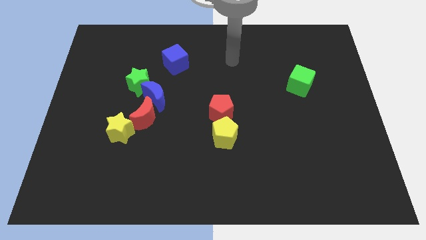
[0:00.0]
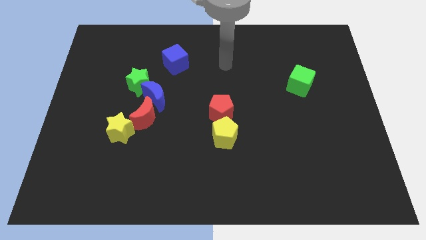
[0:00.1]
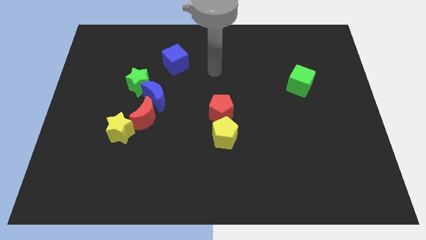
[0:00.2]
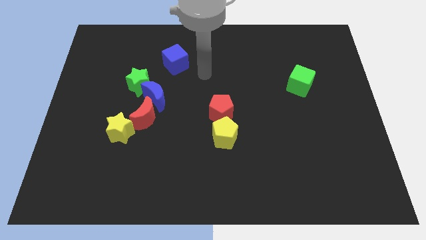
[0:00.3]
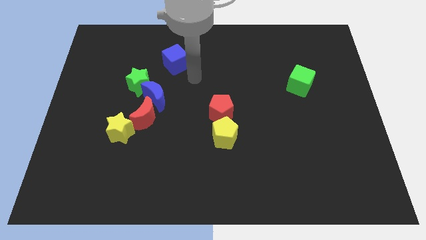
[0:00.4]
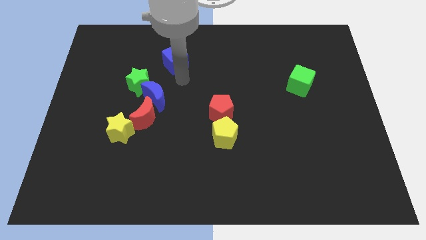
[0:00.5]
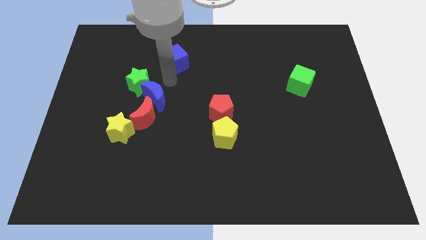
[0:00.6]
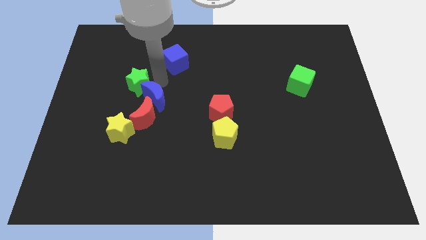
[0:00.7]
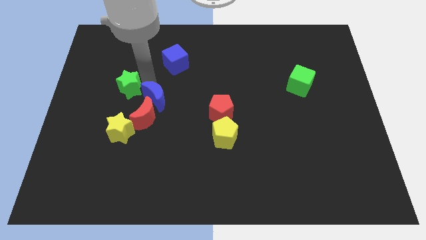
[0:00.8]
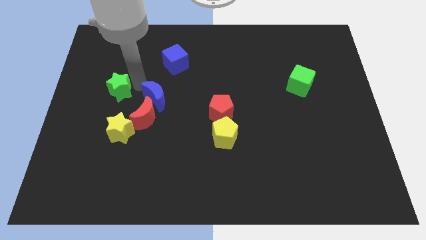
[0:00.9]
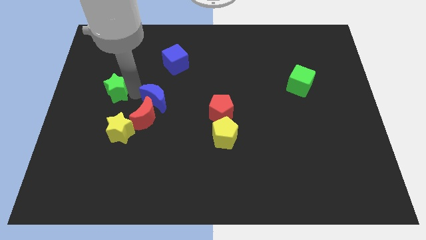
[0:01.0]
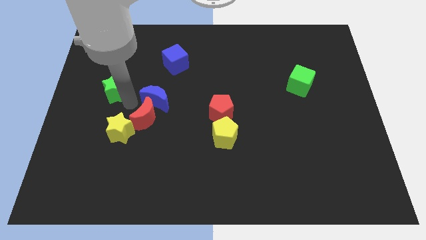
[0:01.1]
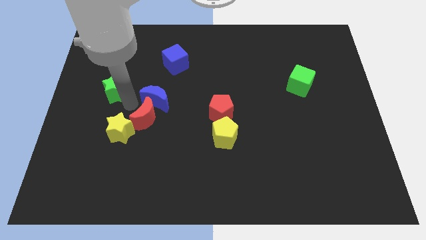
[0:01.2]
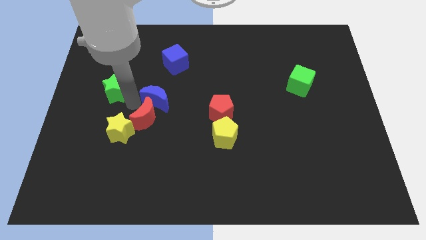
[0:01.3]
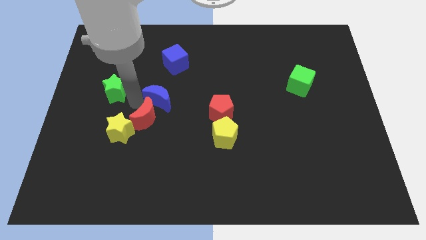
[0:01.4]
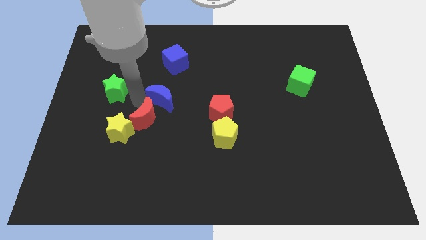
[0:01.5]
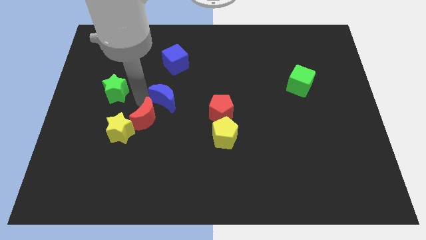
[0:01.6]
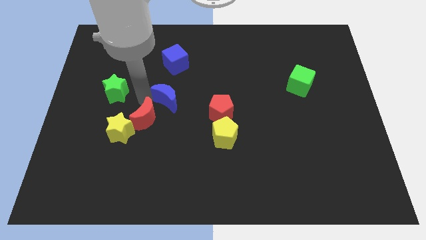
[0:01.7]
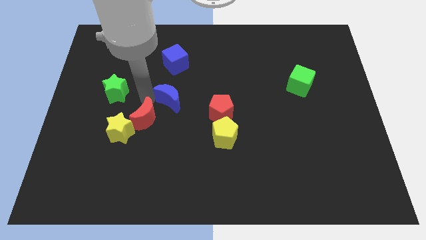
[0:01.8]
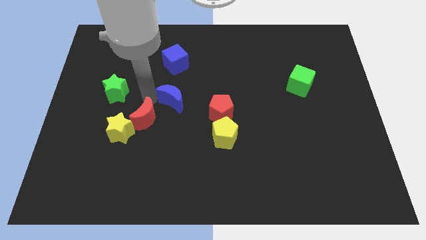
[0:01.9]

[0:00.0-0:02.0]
pull the blue moon apart from the red moon and green star

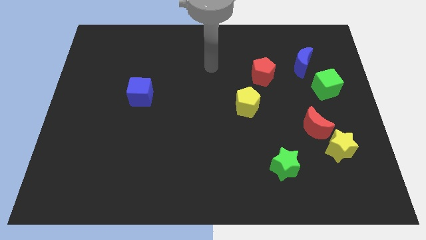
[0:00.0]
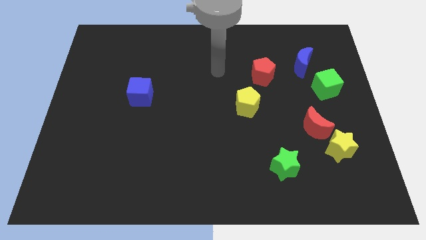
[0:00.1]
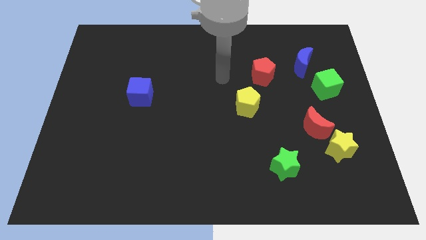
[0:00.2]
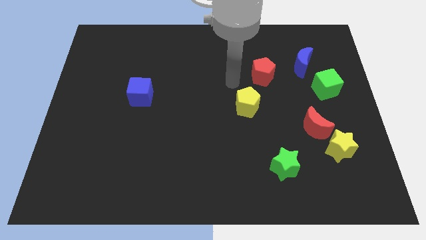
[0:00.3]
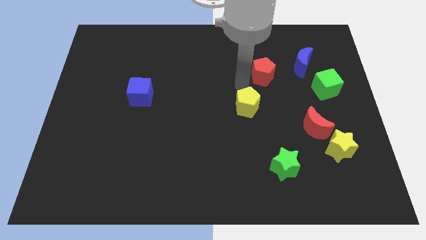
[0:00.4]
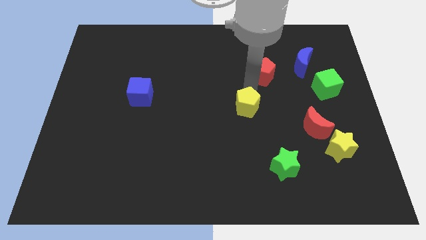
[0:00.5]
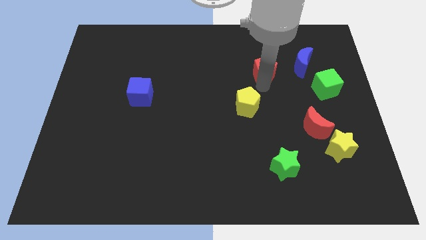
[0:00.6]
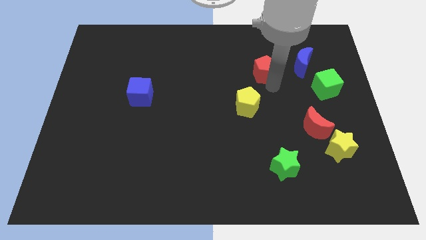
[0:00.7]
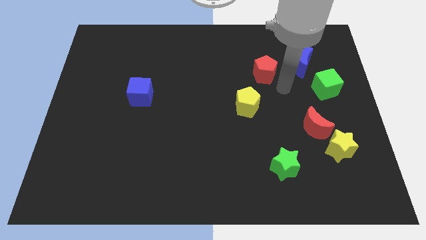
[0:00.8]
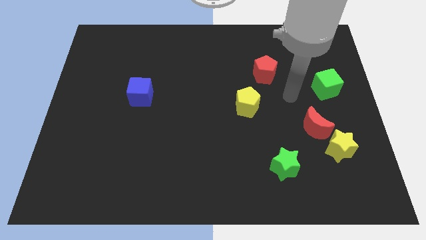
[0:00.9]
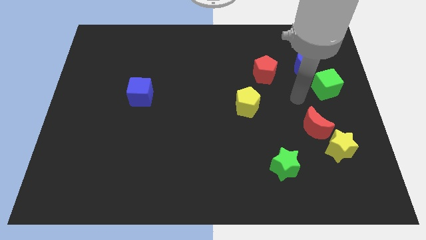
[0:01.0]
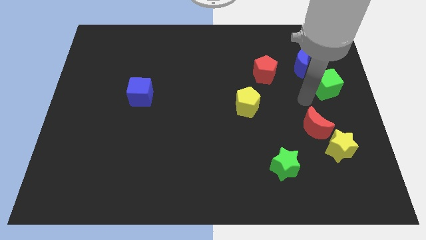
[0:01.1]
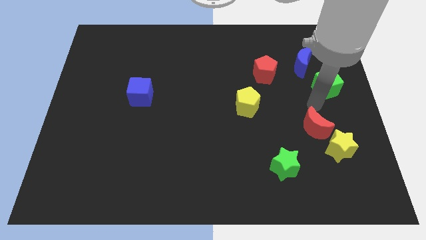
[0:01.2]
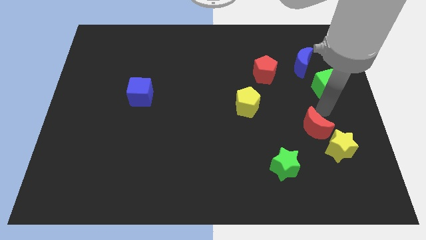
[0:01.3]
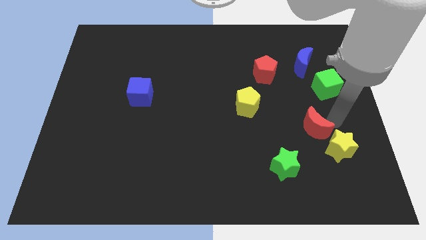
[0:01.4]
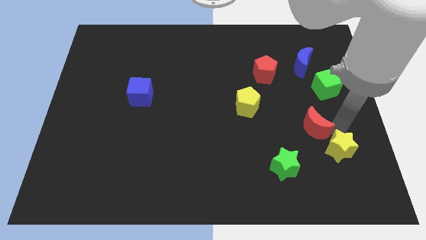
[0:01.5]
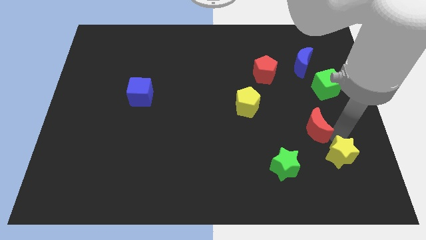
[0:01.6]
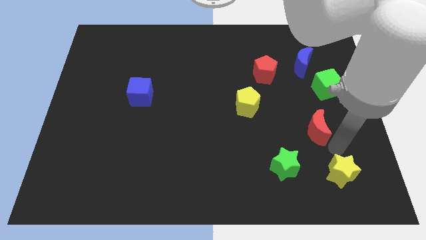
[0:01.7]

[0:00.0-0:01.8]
separate the red moon from the yellow star

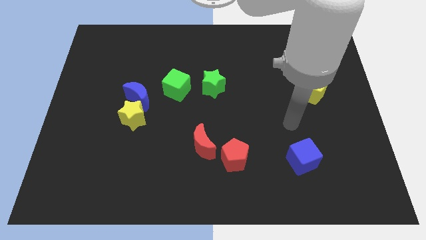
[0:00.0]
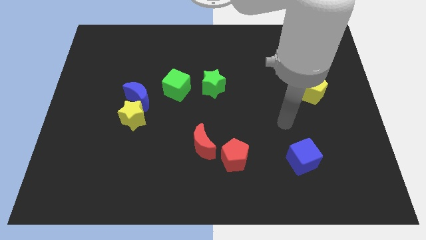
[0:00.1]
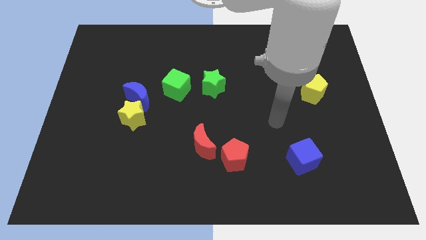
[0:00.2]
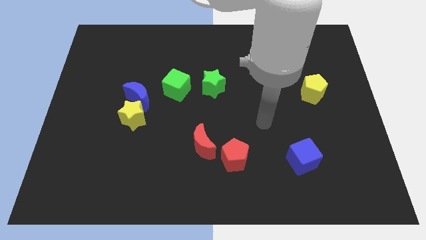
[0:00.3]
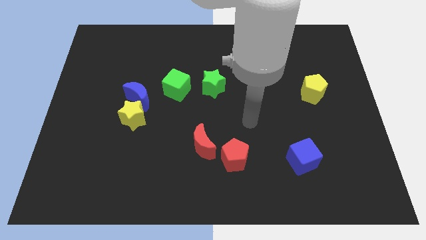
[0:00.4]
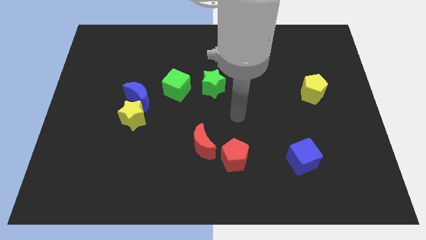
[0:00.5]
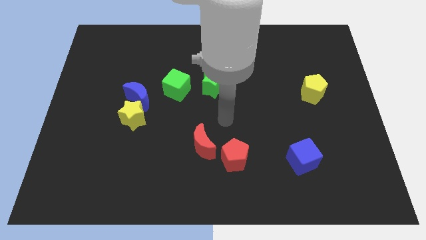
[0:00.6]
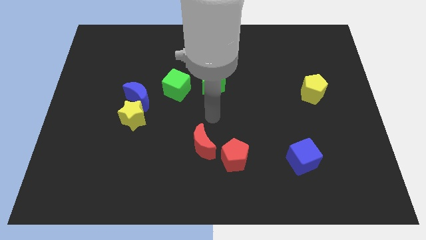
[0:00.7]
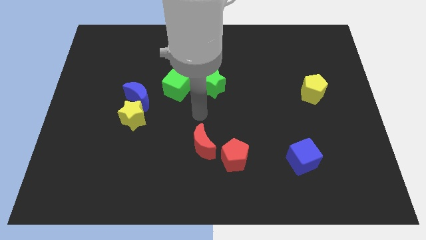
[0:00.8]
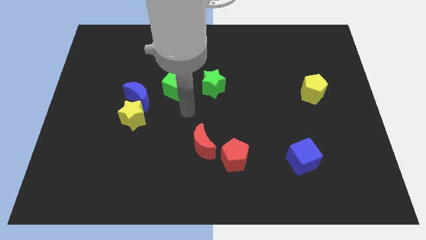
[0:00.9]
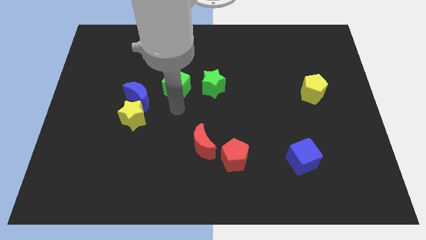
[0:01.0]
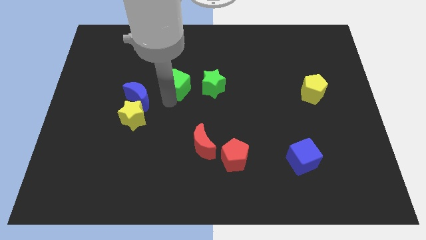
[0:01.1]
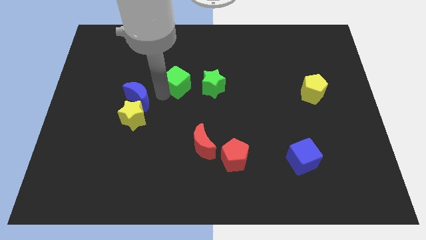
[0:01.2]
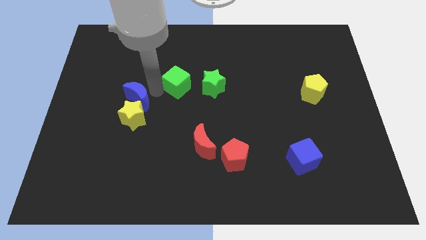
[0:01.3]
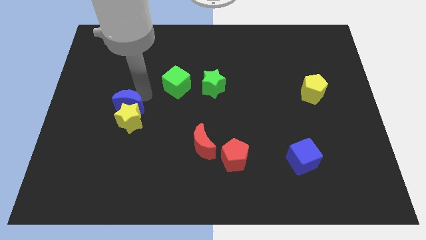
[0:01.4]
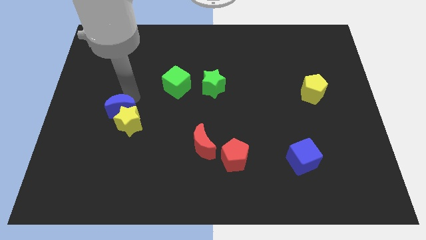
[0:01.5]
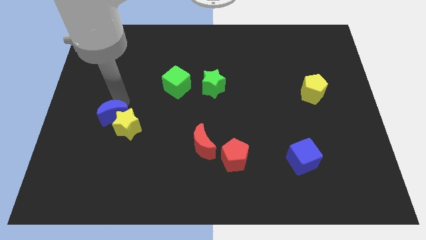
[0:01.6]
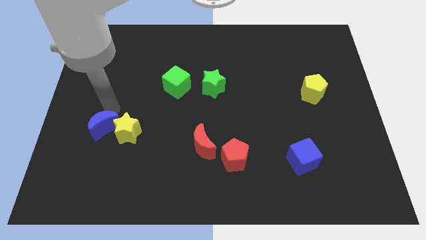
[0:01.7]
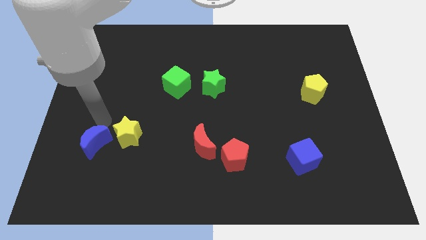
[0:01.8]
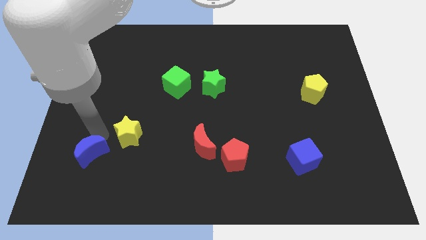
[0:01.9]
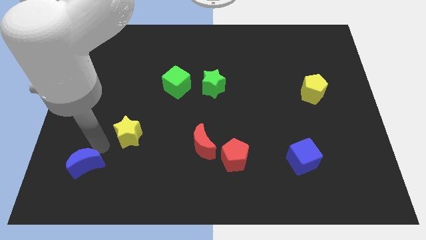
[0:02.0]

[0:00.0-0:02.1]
move the yellow star away from the blue moon

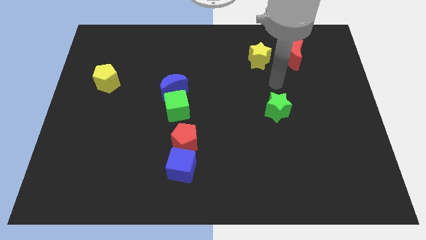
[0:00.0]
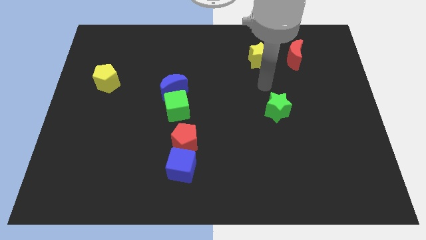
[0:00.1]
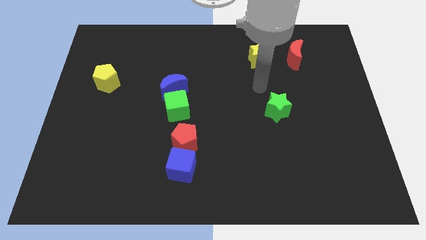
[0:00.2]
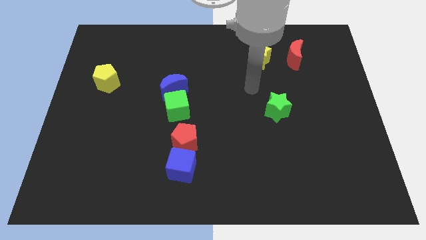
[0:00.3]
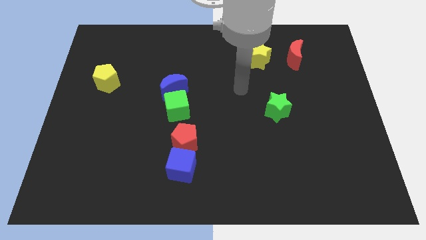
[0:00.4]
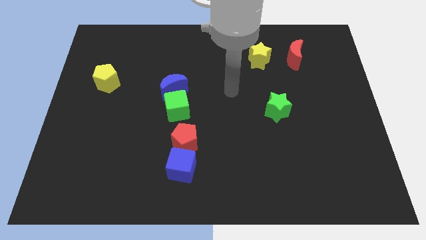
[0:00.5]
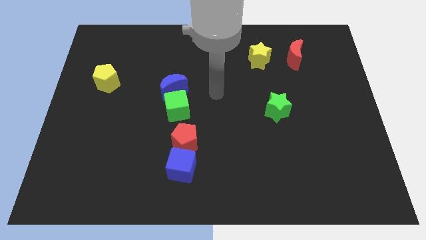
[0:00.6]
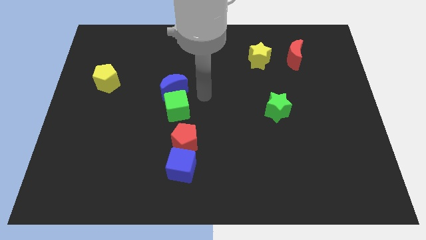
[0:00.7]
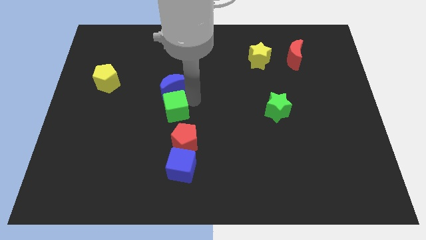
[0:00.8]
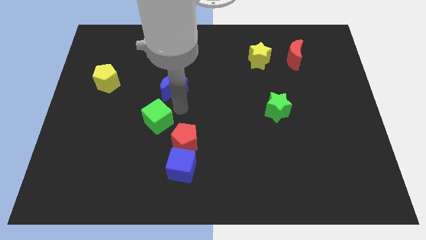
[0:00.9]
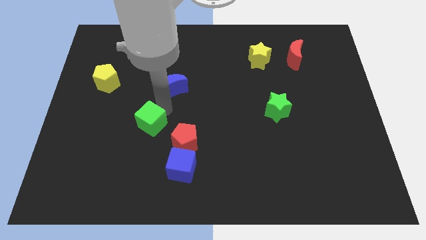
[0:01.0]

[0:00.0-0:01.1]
separate the blue moon from the green cube

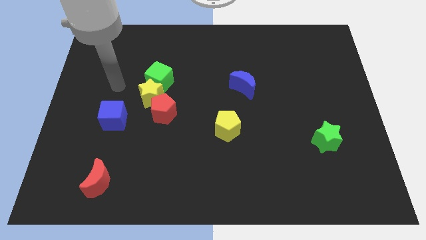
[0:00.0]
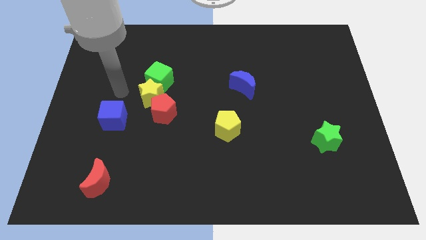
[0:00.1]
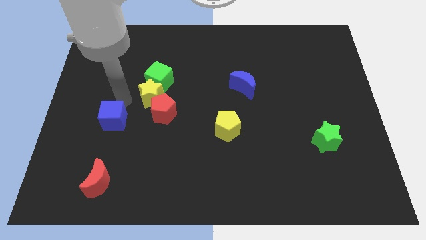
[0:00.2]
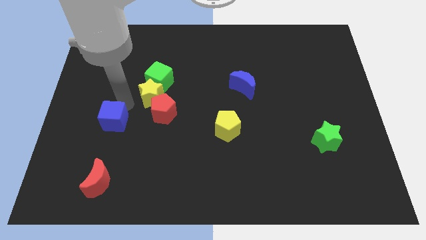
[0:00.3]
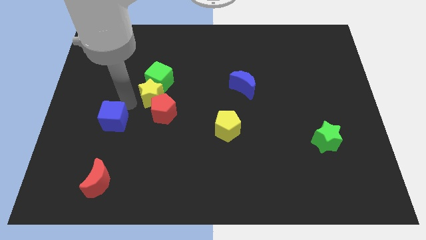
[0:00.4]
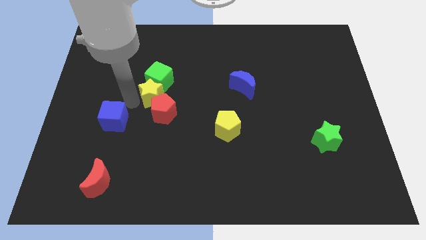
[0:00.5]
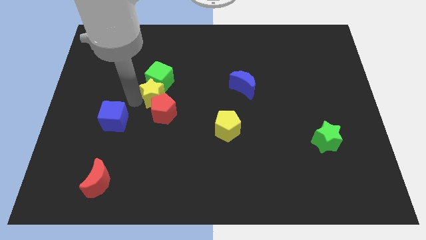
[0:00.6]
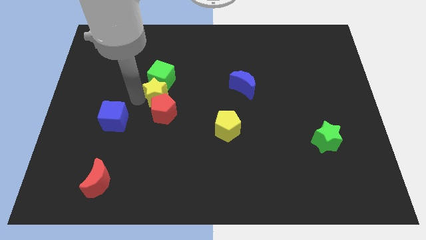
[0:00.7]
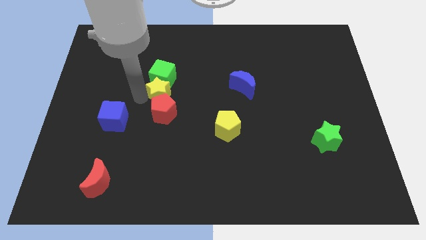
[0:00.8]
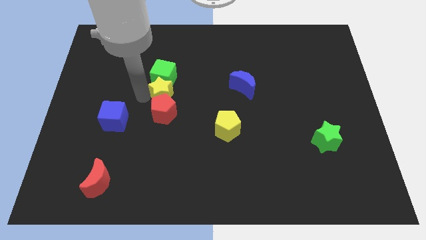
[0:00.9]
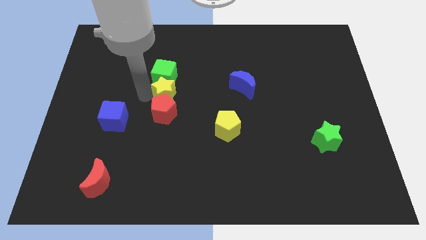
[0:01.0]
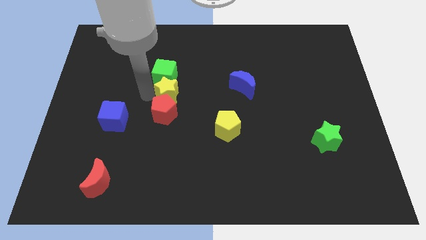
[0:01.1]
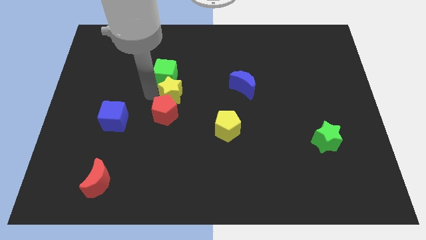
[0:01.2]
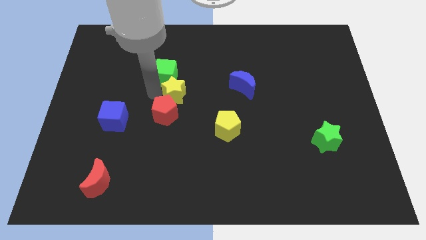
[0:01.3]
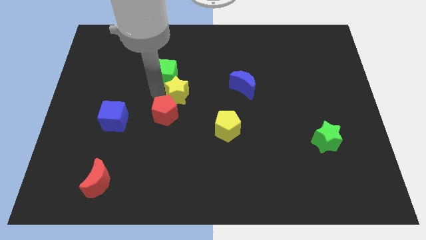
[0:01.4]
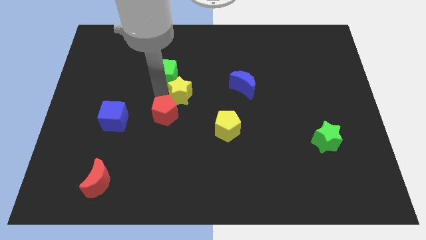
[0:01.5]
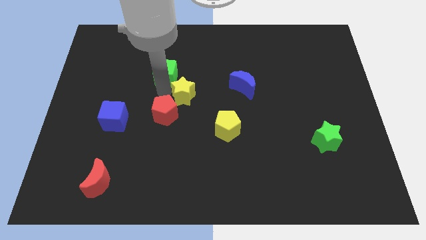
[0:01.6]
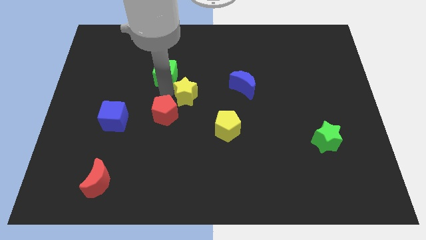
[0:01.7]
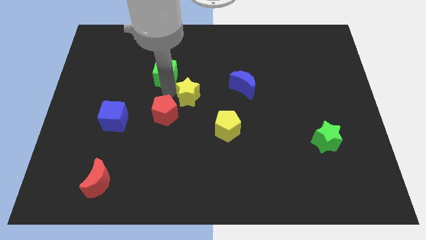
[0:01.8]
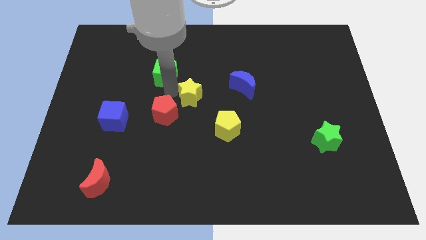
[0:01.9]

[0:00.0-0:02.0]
move the yellow star away from the red pentagon, green cube, and blue cube

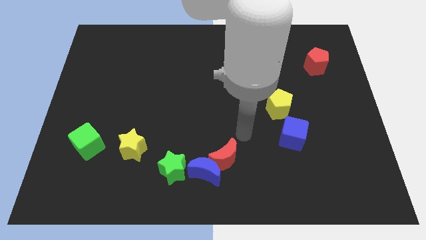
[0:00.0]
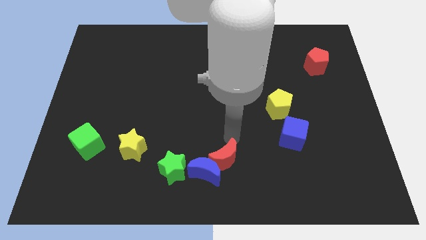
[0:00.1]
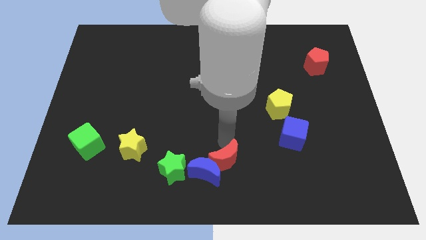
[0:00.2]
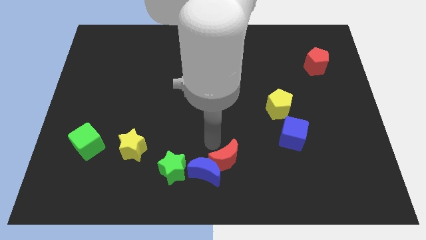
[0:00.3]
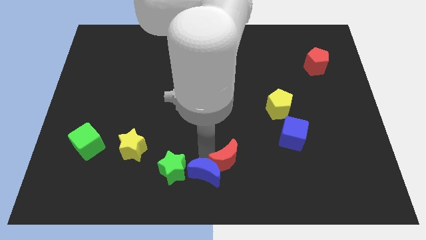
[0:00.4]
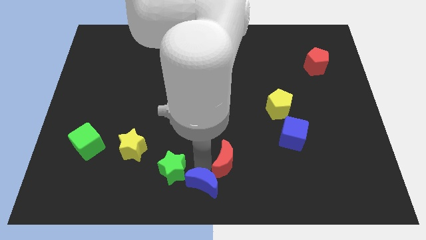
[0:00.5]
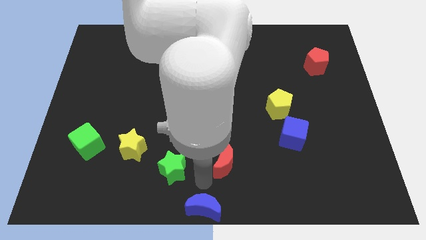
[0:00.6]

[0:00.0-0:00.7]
pull the red moon apart from the blue moon
